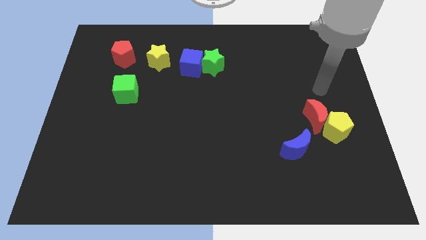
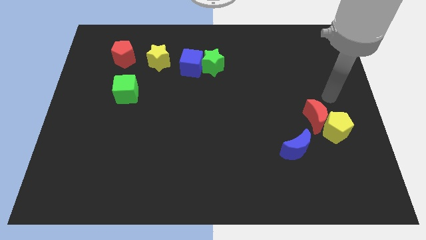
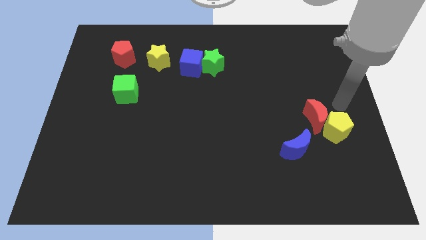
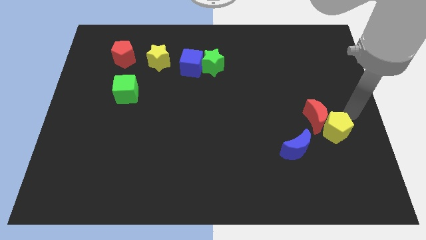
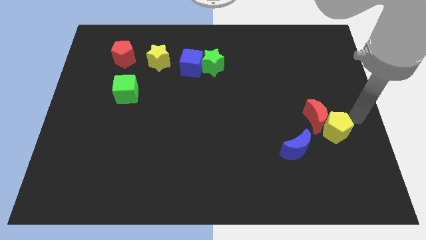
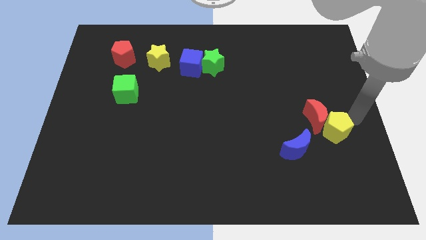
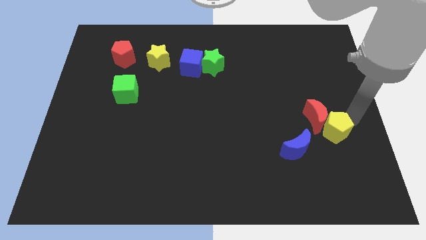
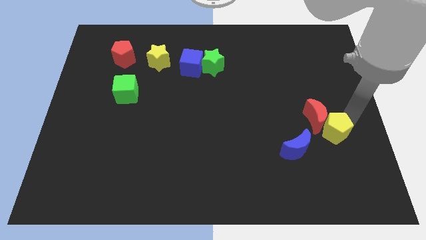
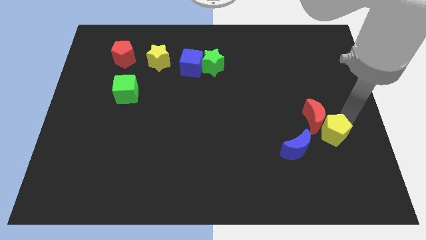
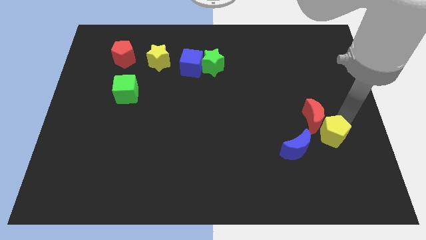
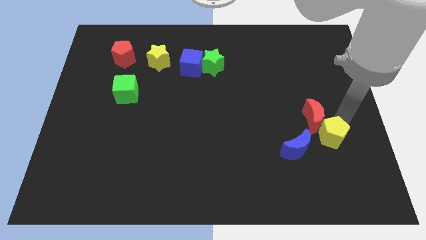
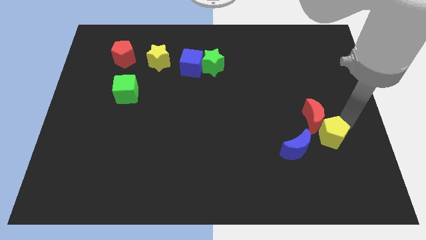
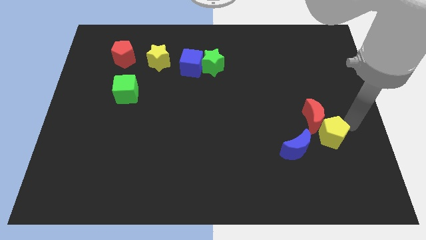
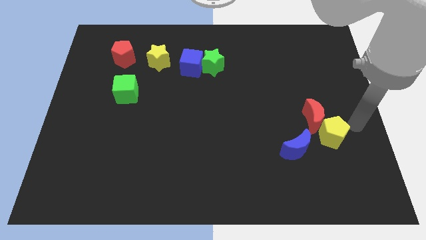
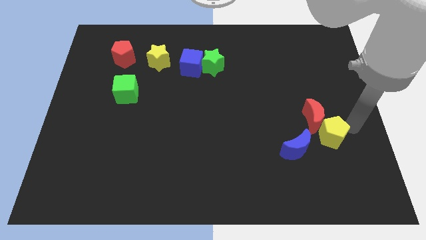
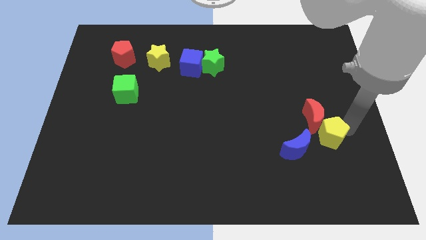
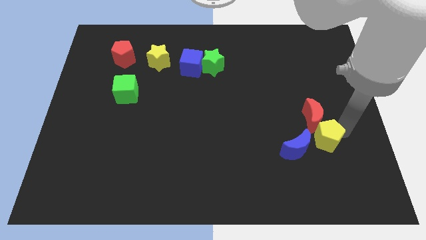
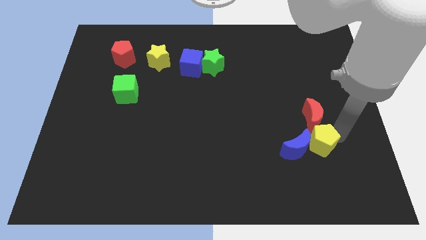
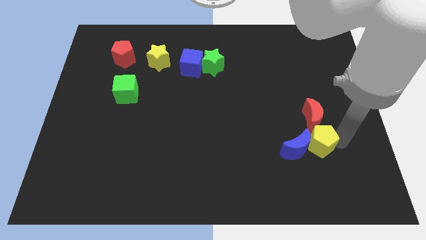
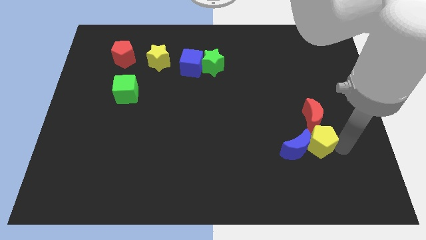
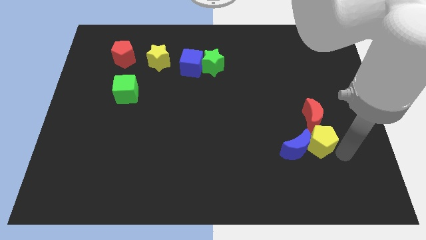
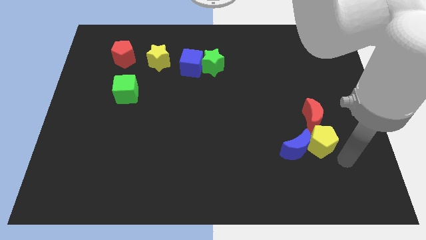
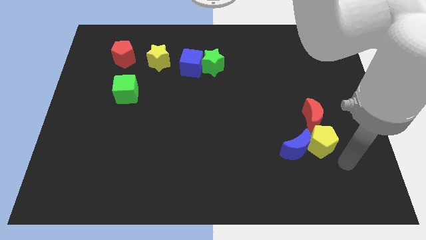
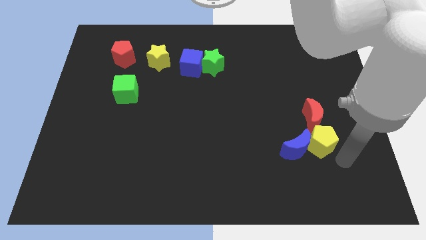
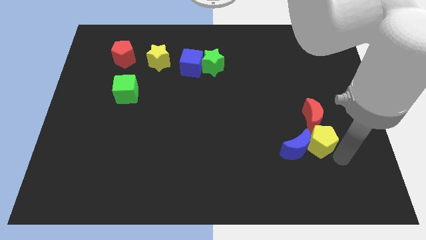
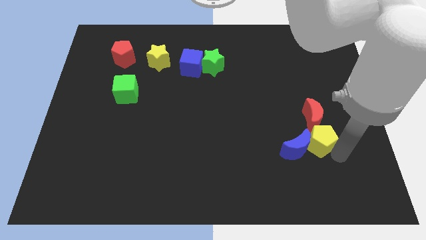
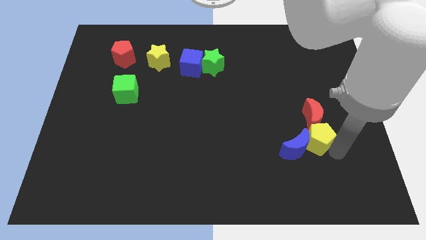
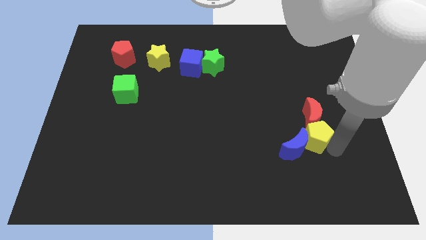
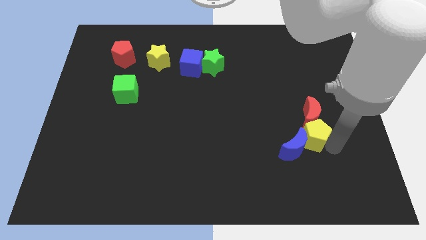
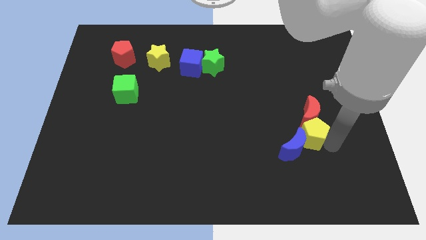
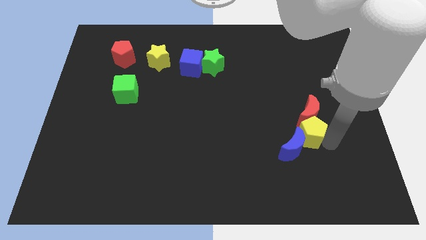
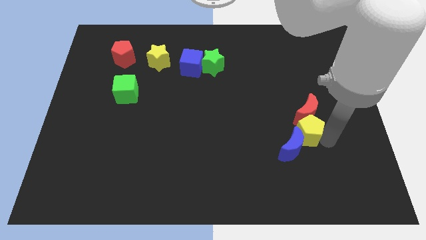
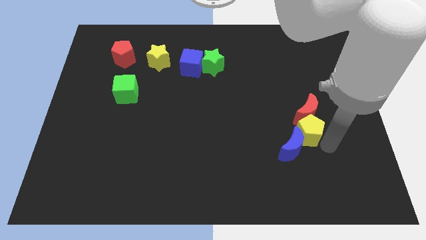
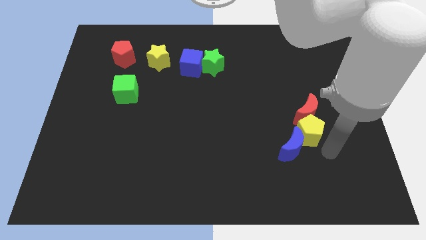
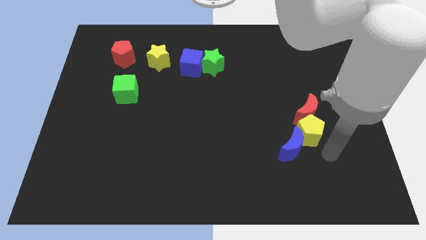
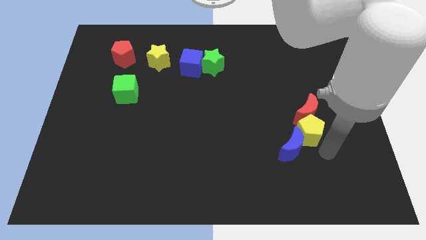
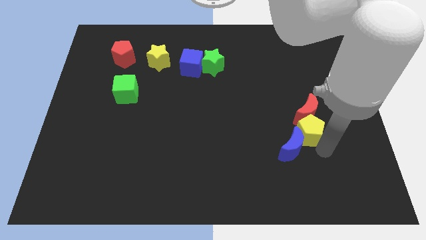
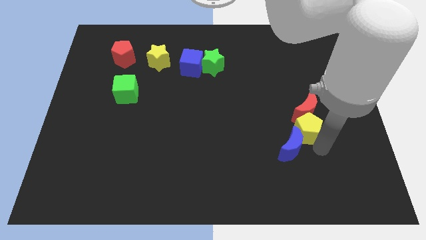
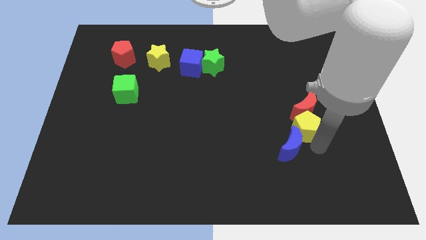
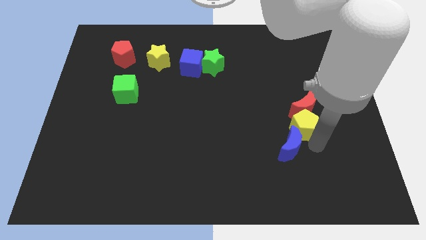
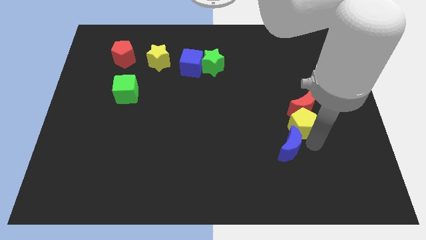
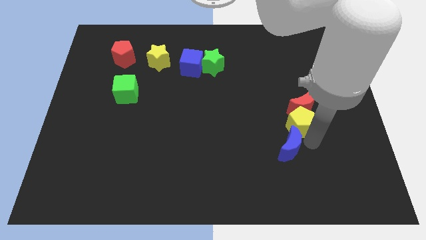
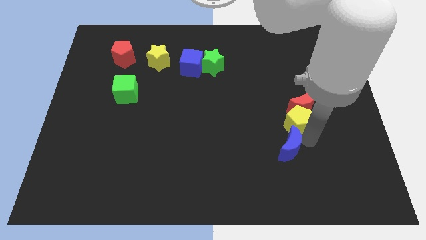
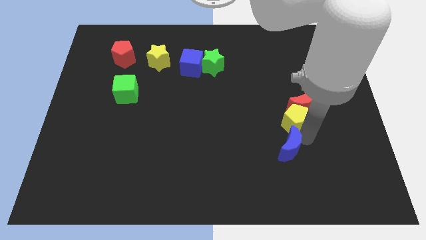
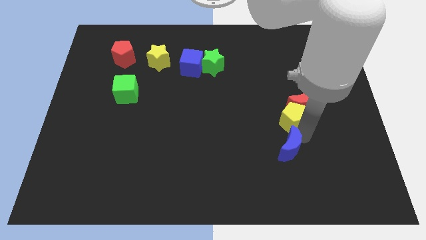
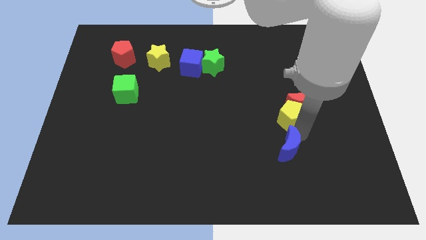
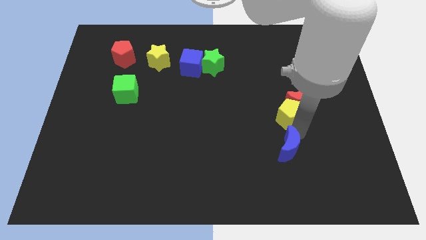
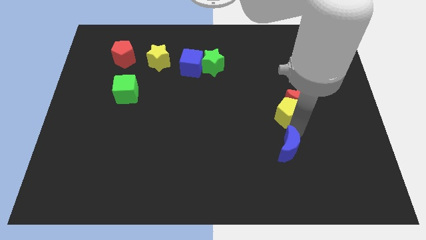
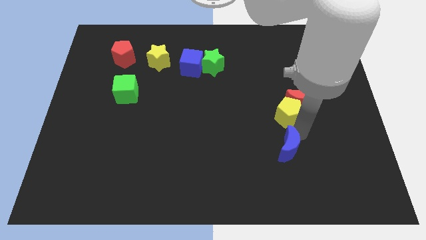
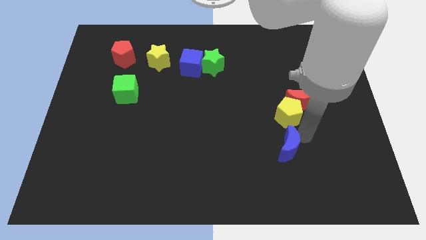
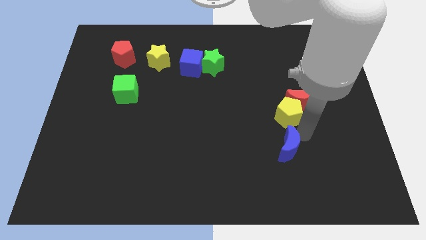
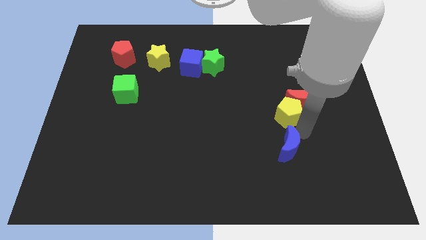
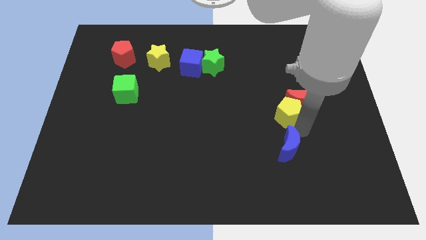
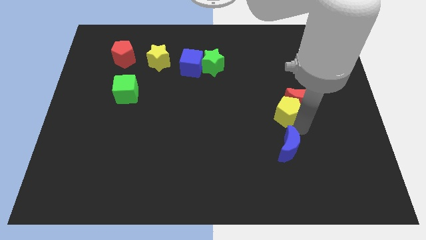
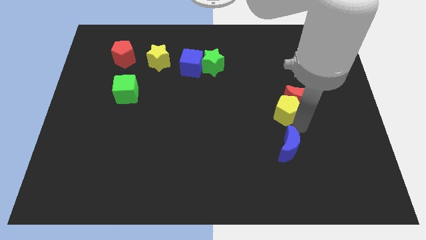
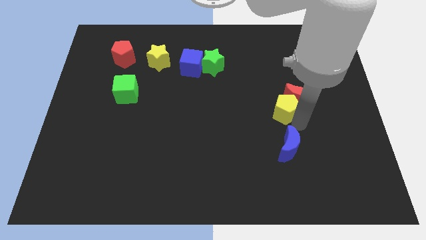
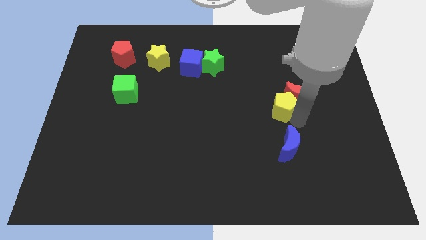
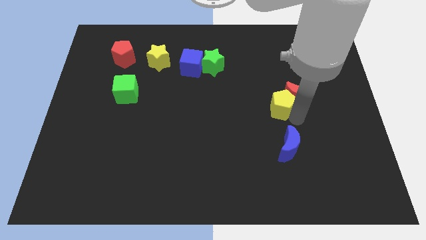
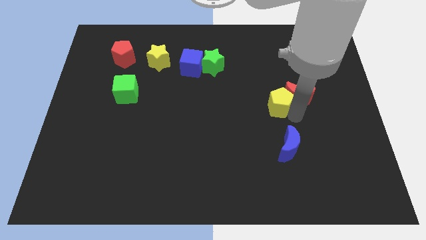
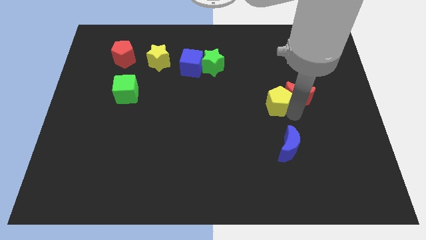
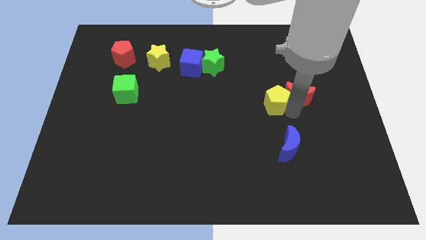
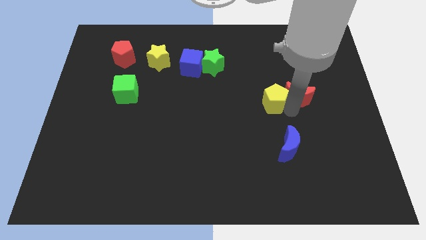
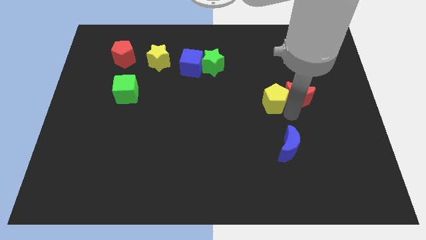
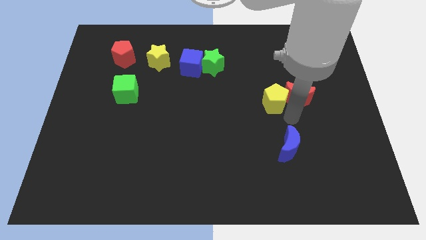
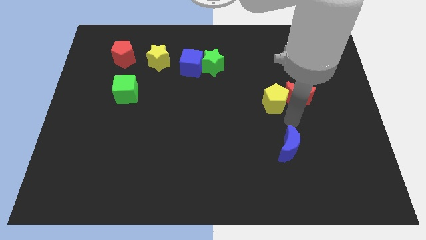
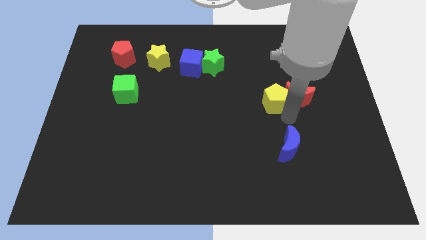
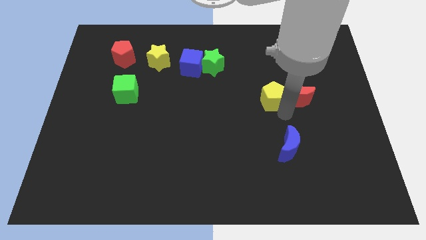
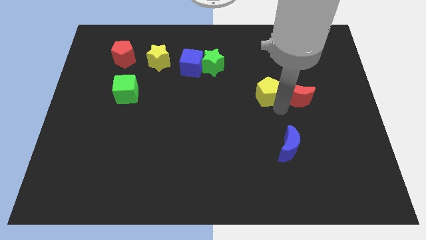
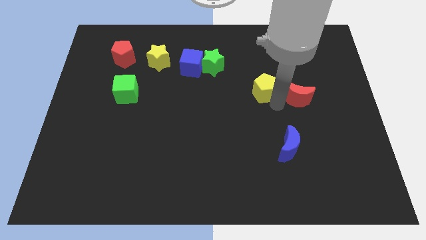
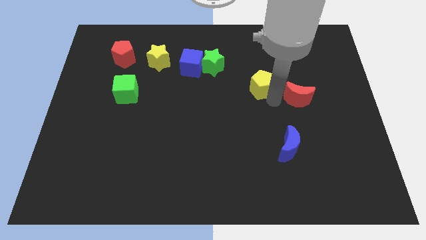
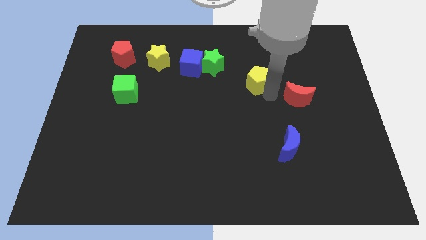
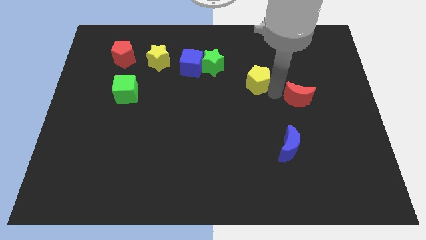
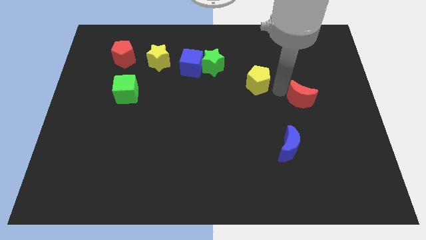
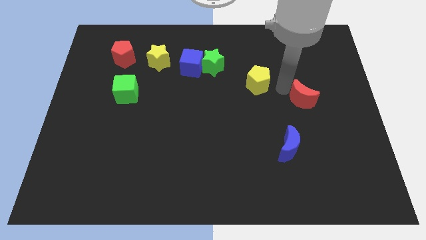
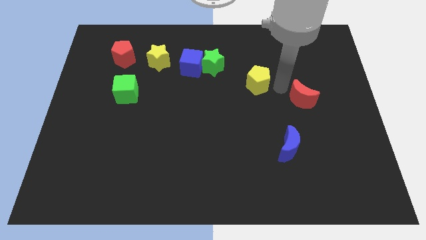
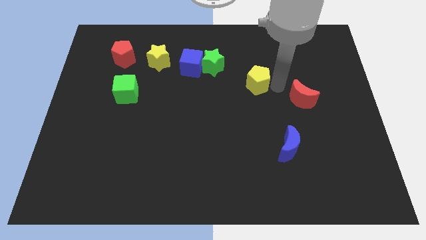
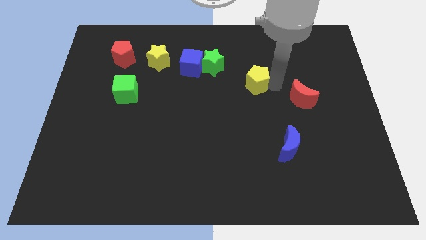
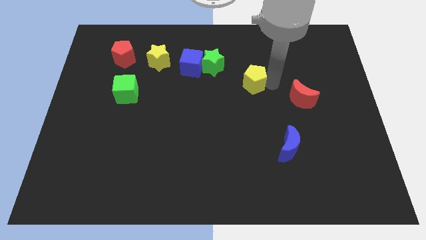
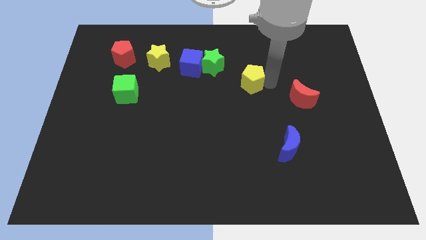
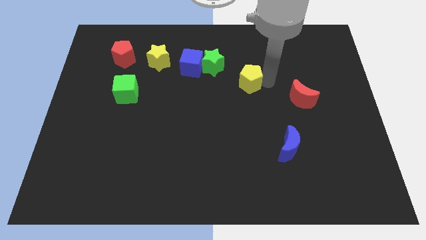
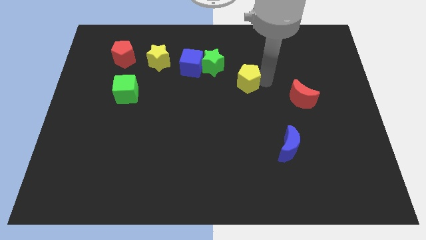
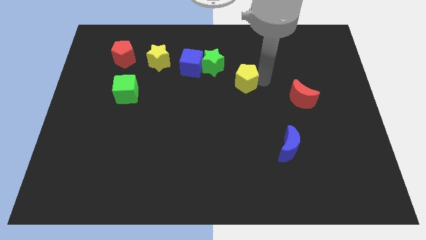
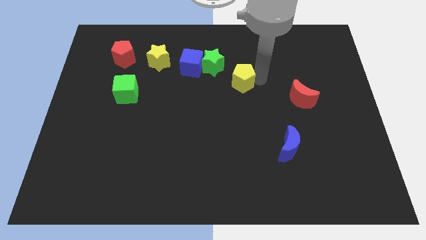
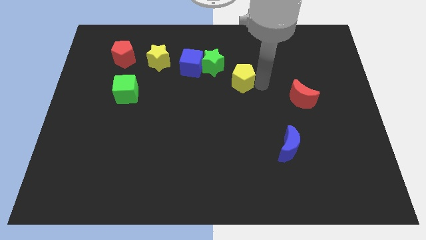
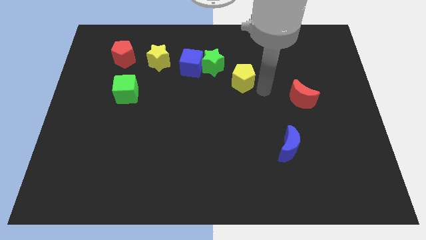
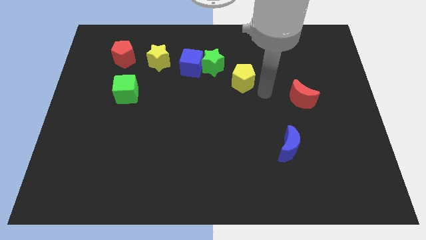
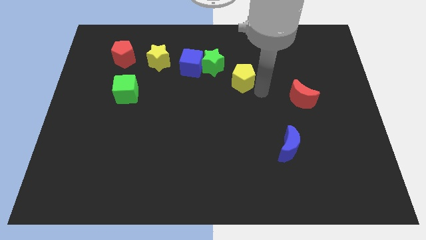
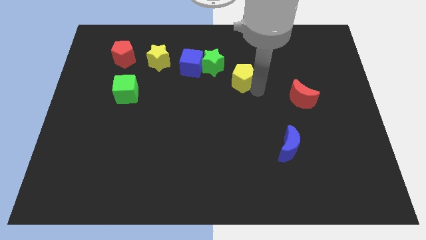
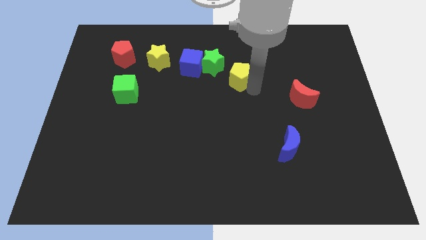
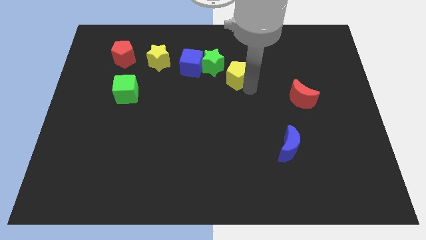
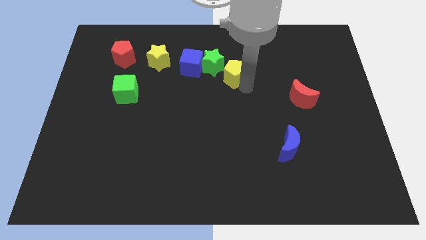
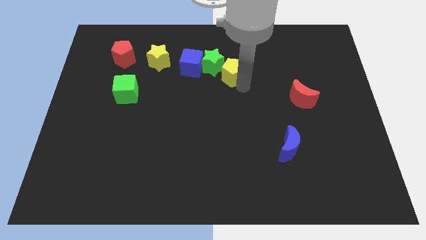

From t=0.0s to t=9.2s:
slide the yellow pentagon close to the green star
